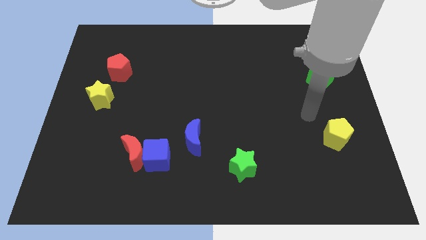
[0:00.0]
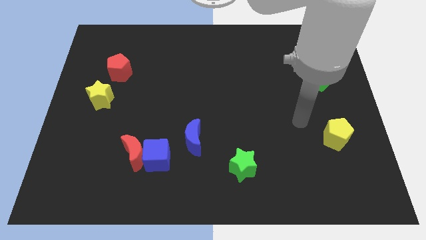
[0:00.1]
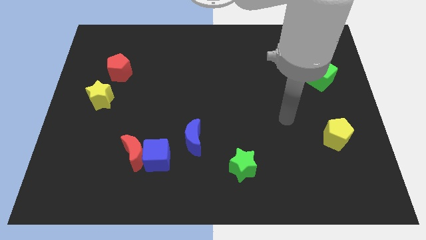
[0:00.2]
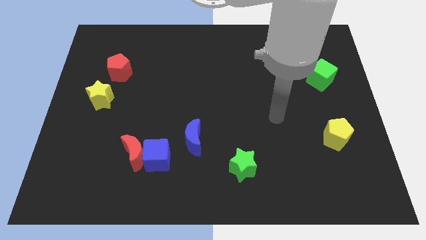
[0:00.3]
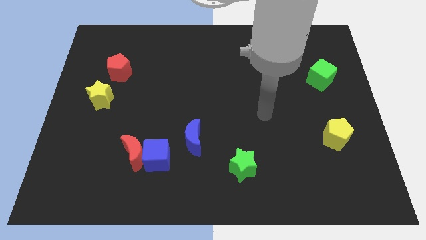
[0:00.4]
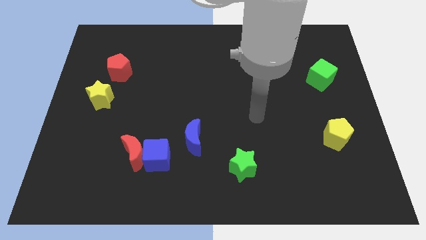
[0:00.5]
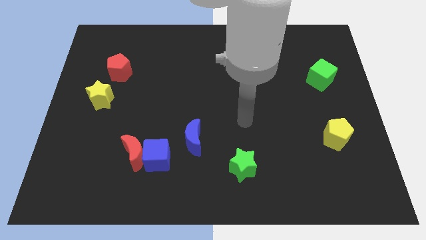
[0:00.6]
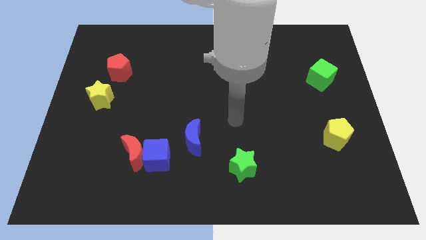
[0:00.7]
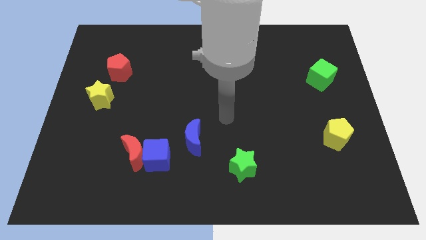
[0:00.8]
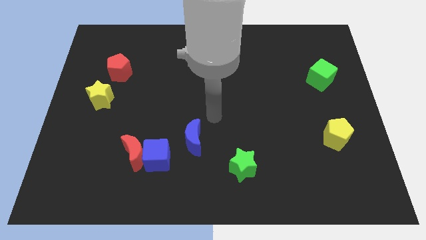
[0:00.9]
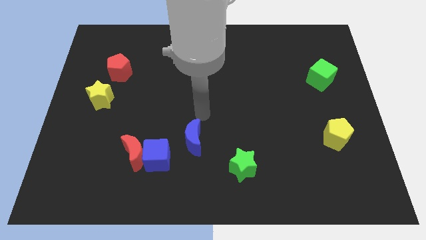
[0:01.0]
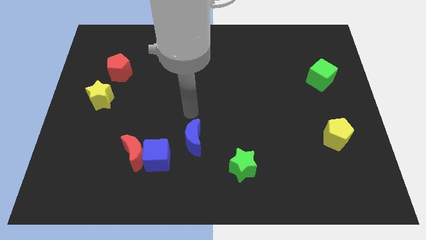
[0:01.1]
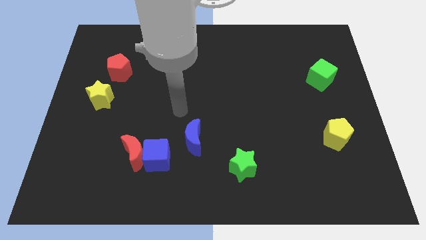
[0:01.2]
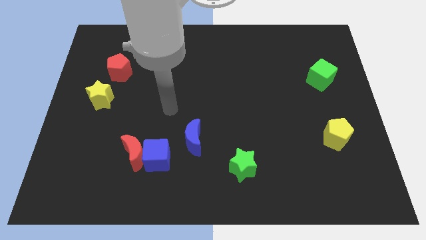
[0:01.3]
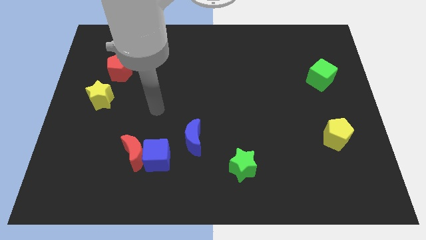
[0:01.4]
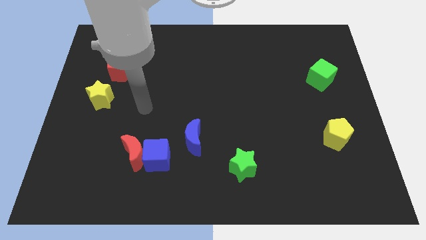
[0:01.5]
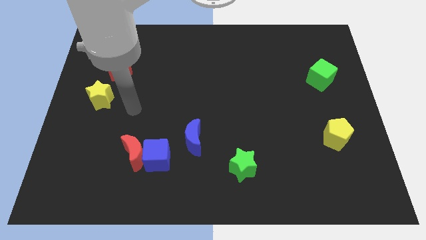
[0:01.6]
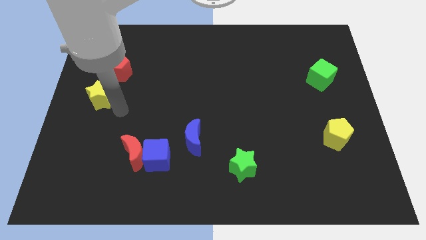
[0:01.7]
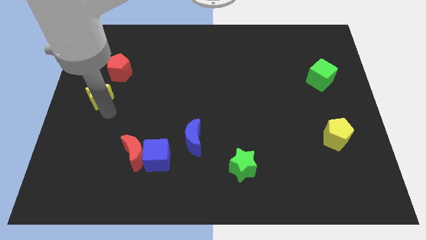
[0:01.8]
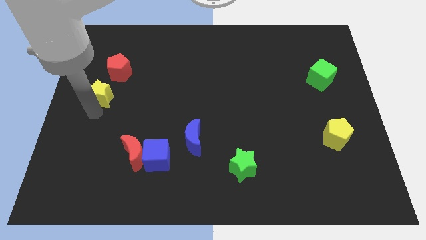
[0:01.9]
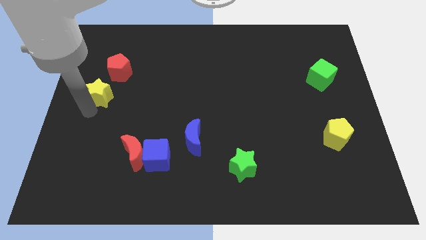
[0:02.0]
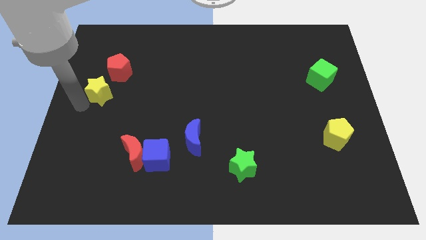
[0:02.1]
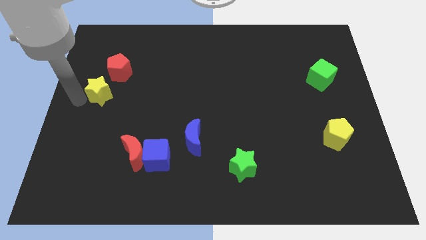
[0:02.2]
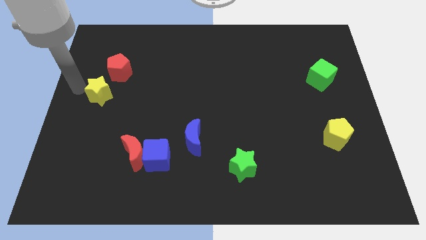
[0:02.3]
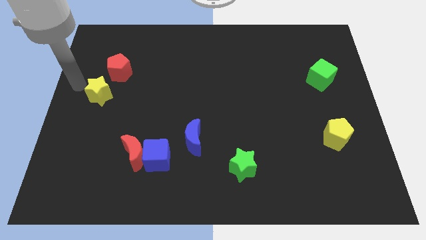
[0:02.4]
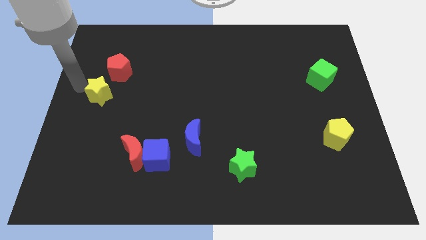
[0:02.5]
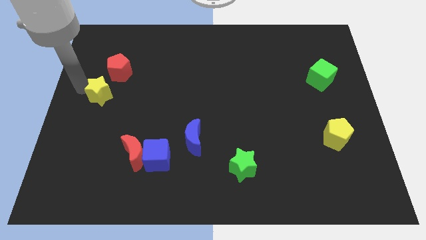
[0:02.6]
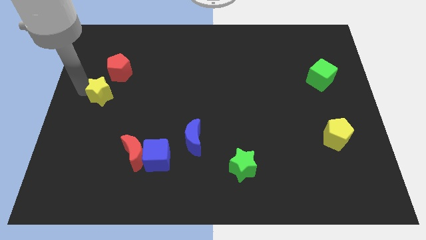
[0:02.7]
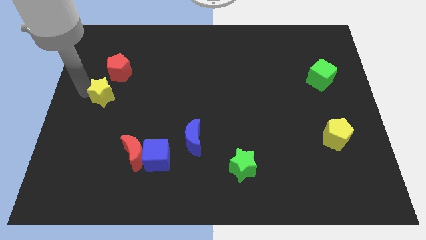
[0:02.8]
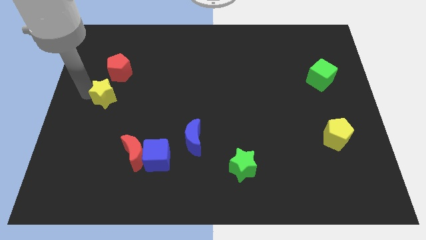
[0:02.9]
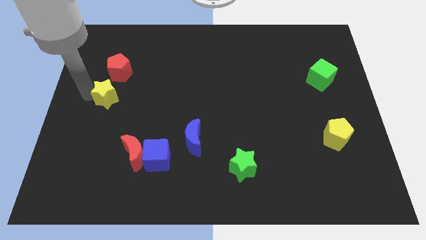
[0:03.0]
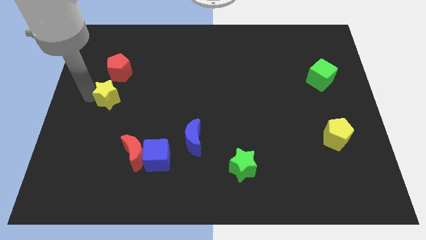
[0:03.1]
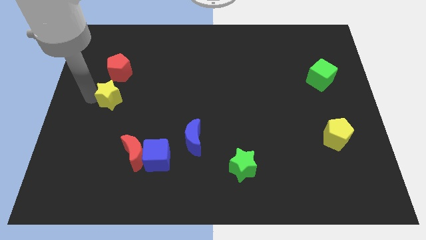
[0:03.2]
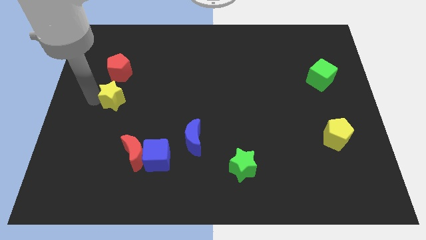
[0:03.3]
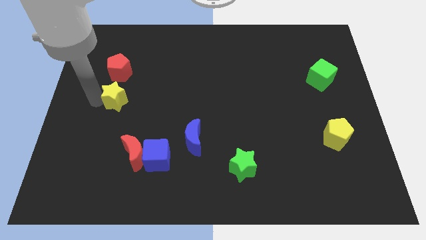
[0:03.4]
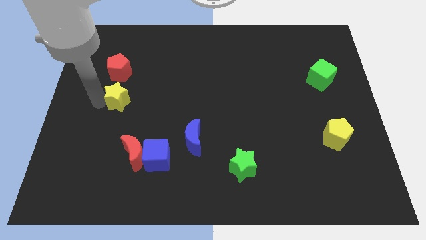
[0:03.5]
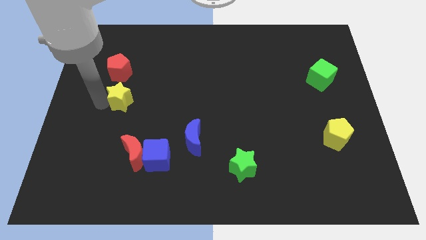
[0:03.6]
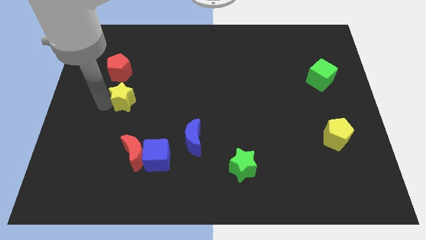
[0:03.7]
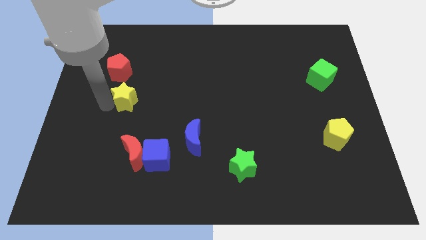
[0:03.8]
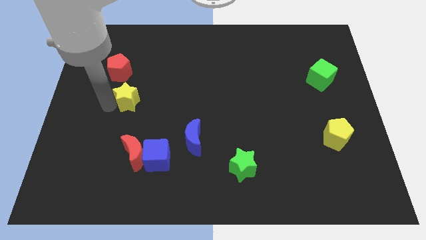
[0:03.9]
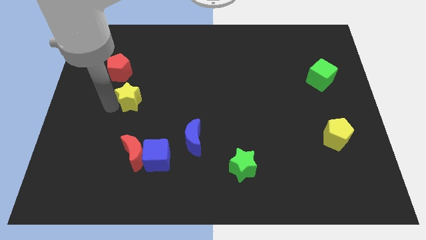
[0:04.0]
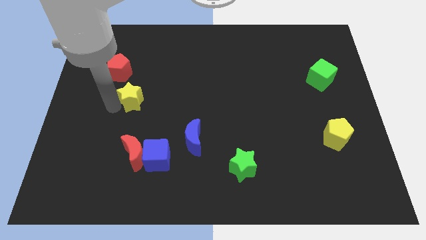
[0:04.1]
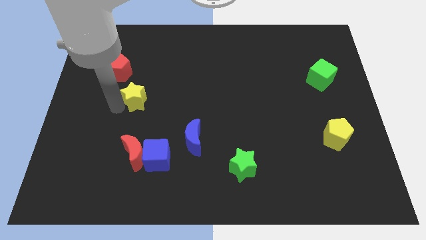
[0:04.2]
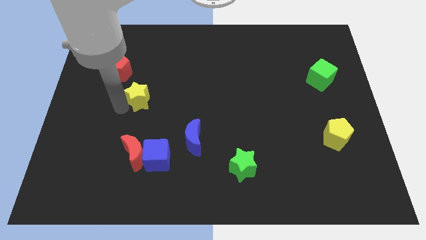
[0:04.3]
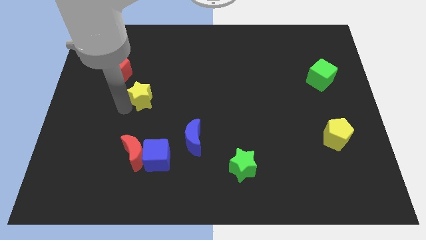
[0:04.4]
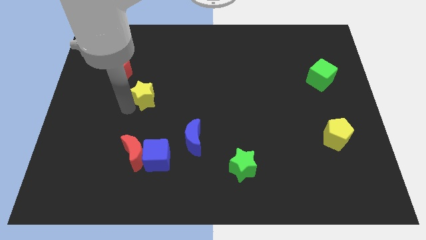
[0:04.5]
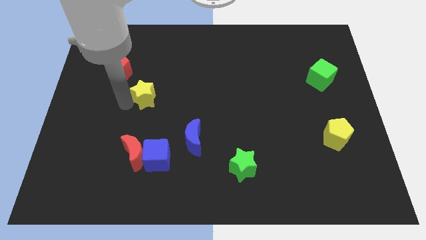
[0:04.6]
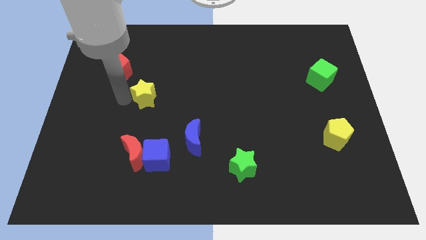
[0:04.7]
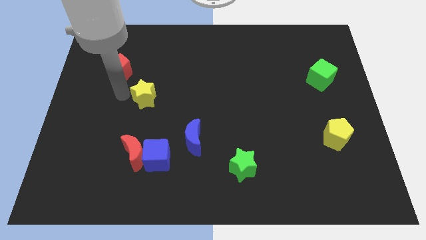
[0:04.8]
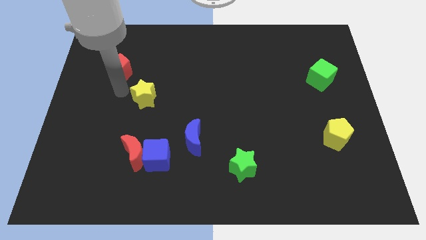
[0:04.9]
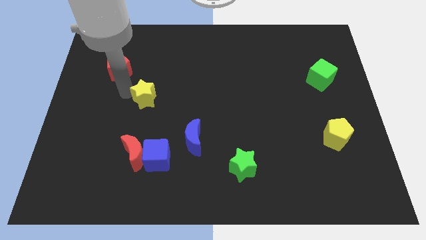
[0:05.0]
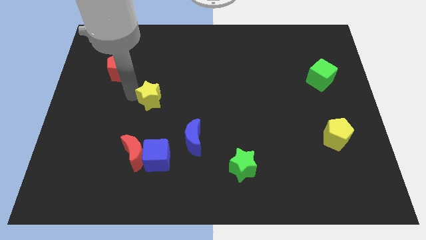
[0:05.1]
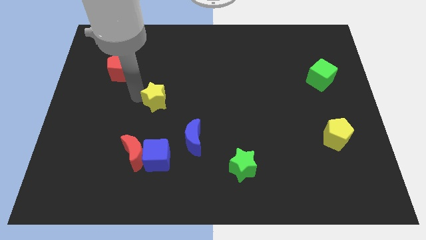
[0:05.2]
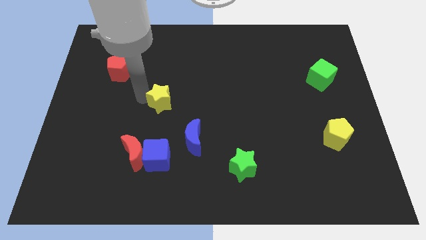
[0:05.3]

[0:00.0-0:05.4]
slide the yellow star to the middle of the board
